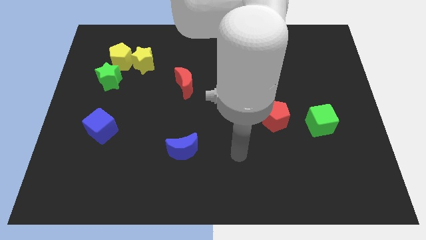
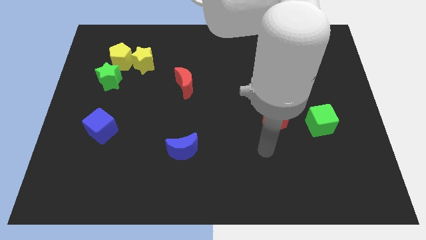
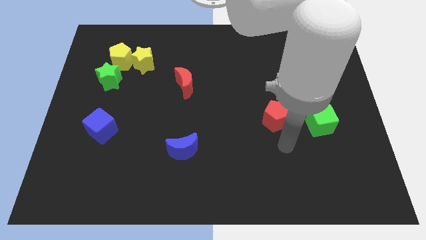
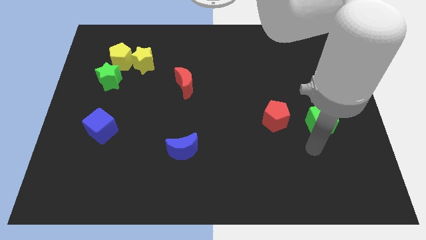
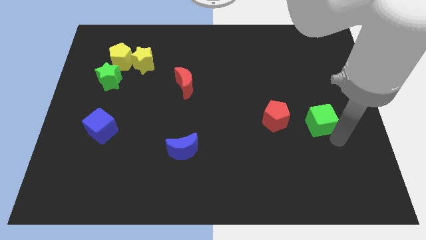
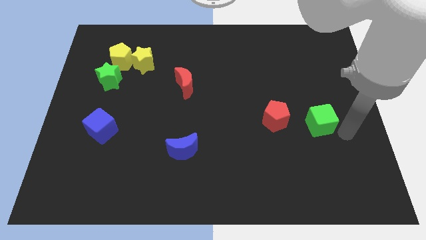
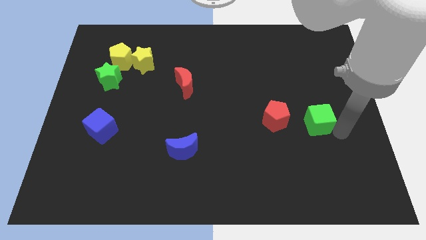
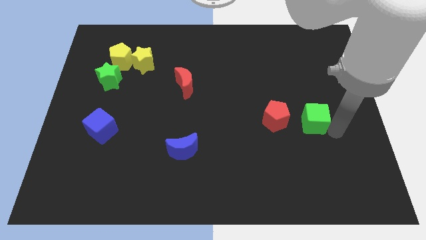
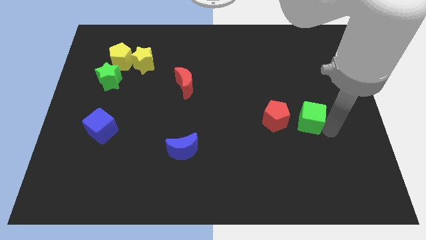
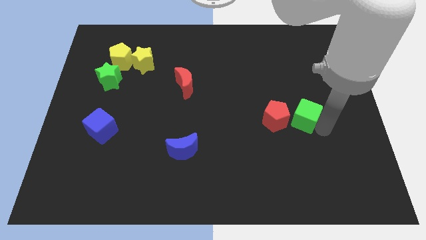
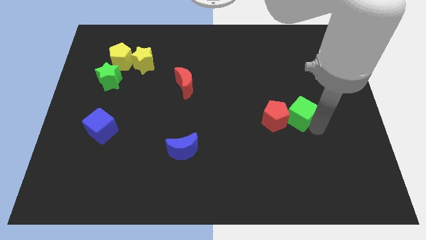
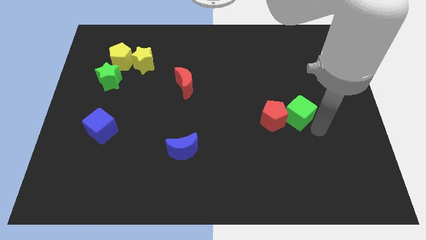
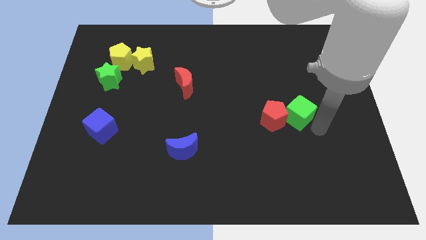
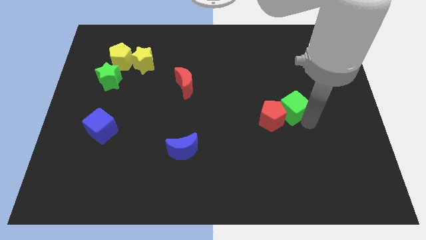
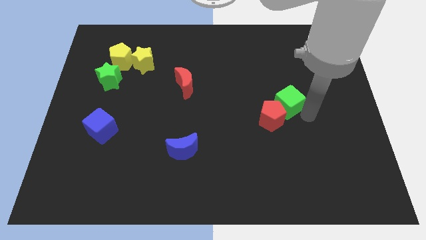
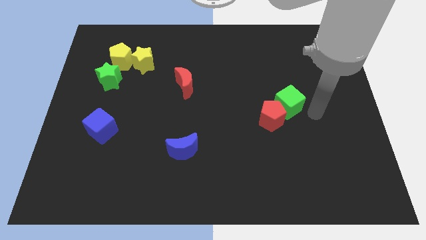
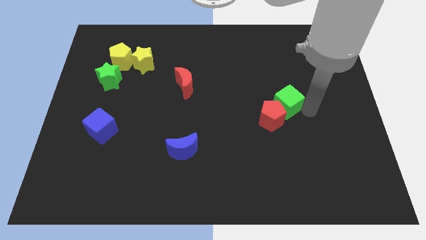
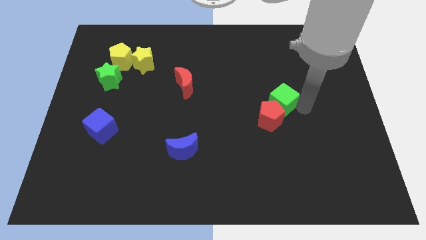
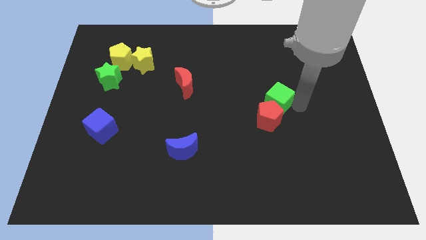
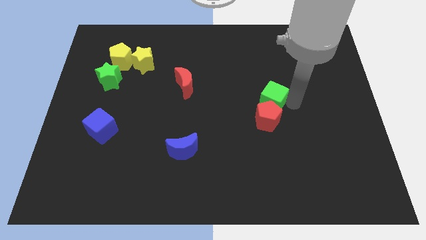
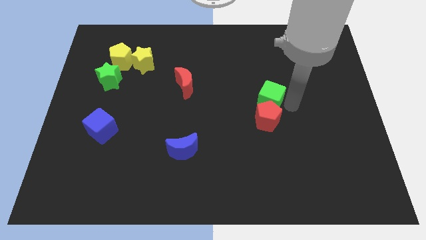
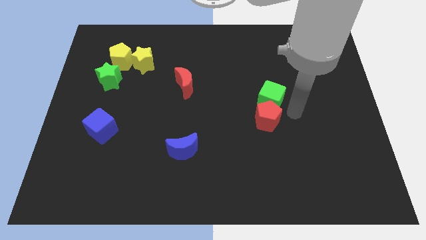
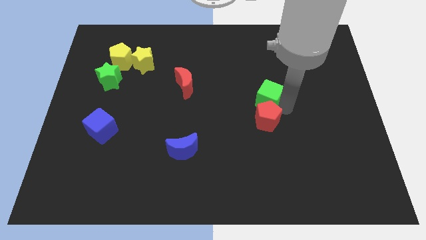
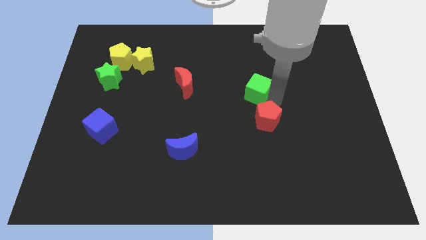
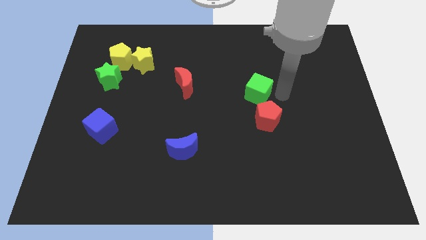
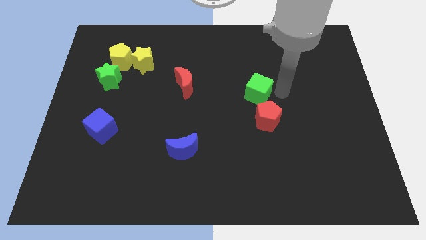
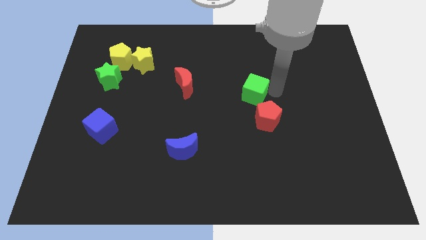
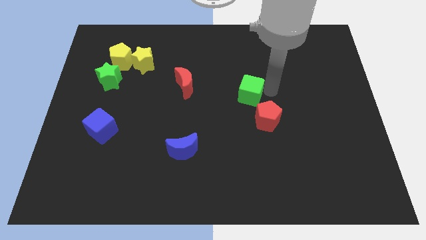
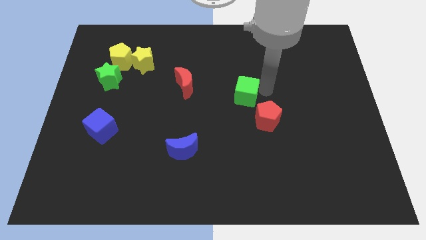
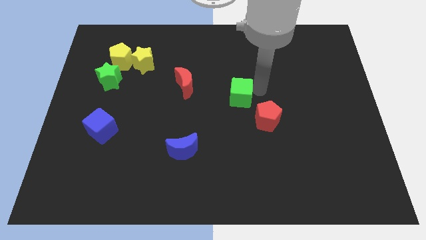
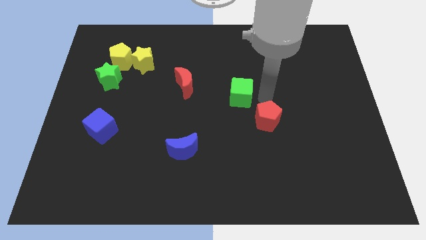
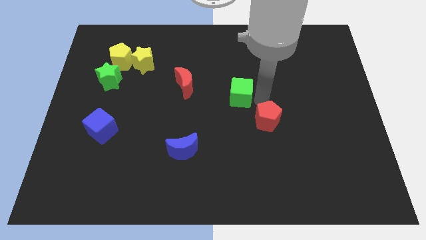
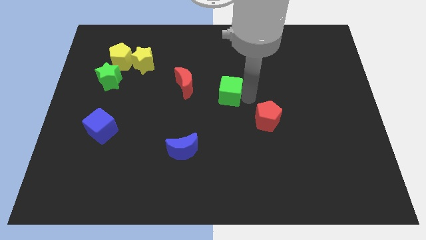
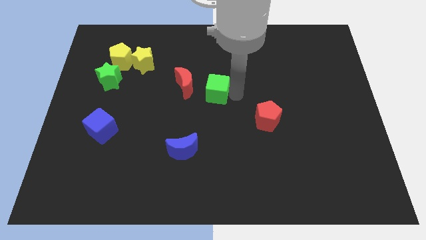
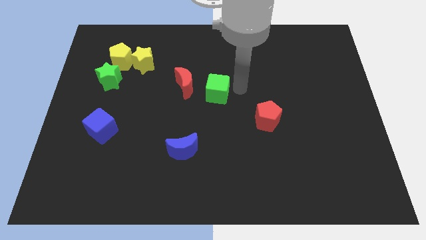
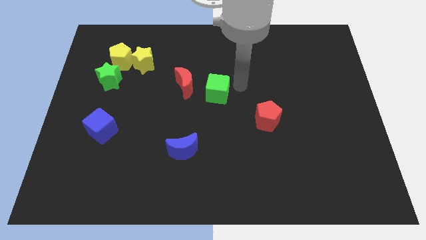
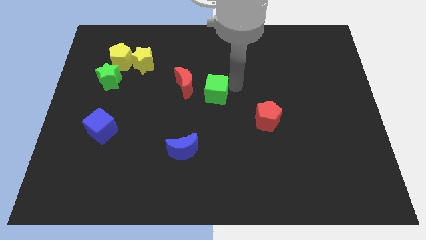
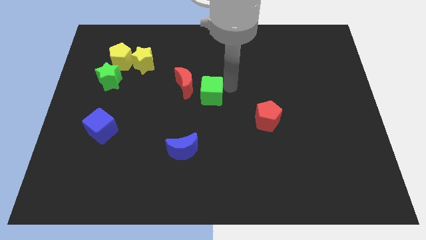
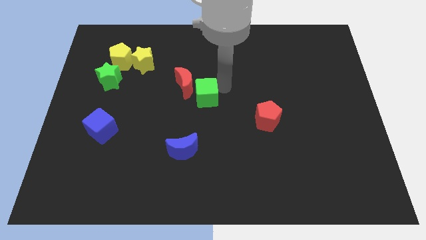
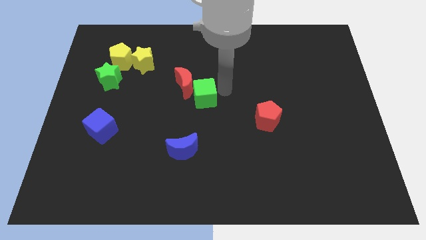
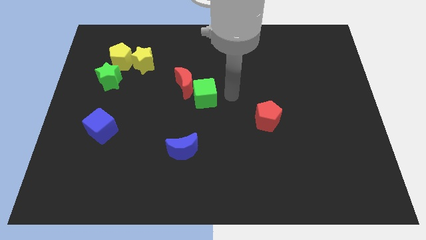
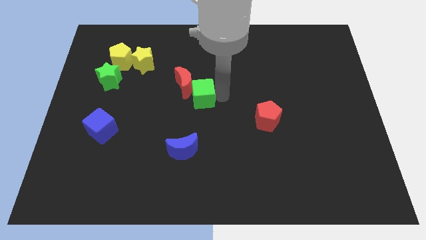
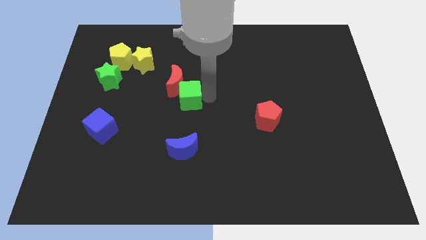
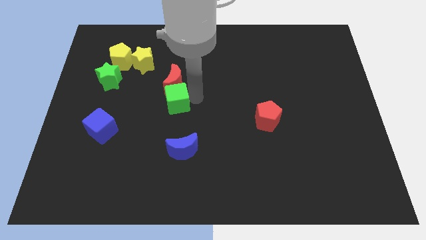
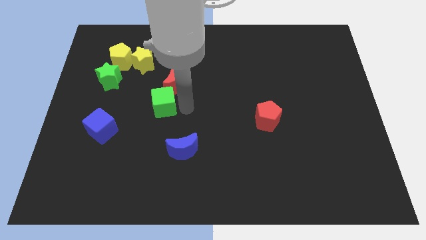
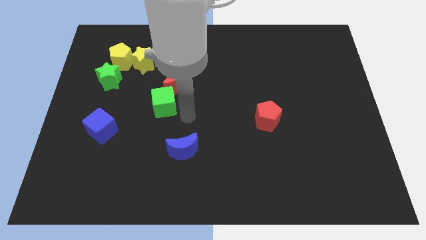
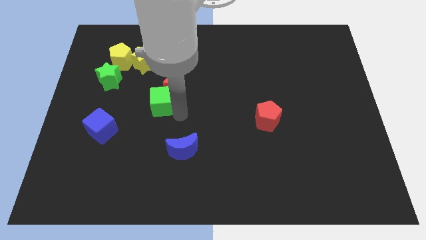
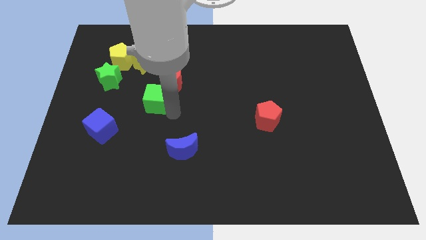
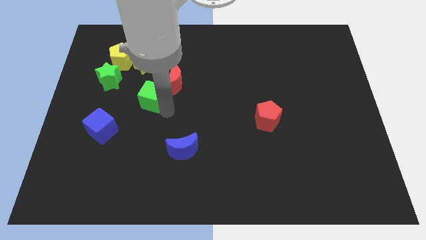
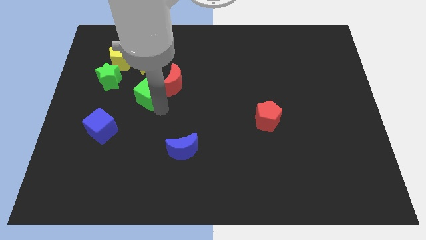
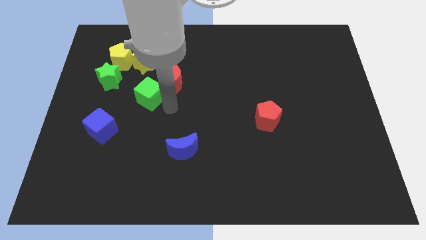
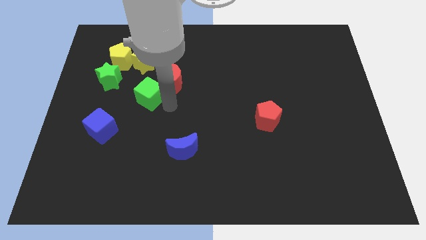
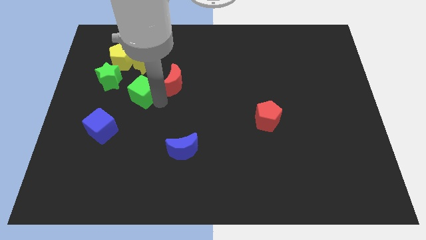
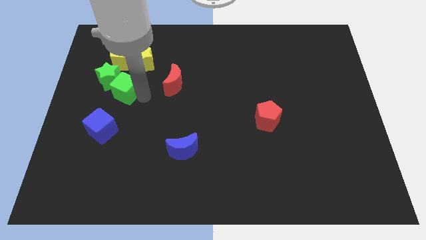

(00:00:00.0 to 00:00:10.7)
put the green cube towards the green star

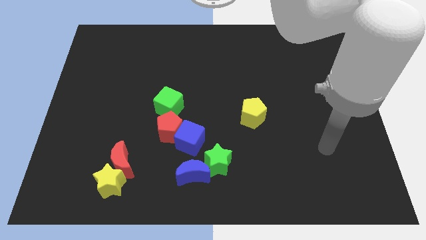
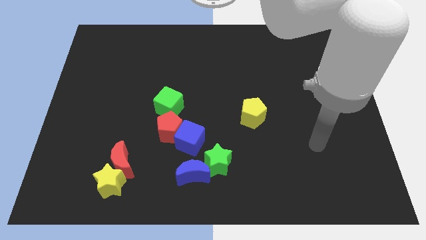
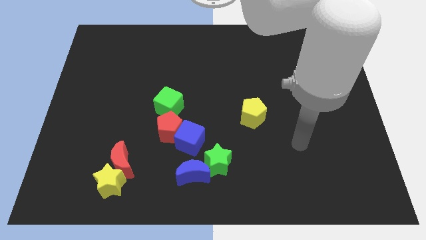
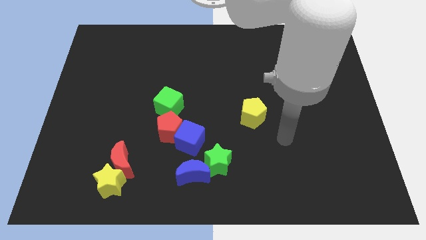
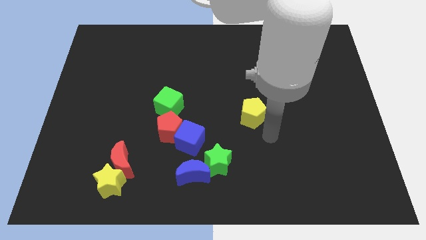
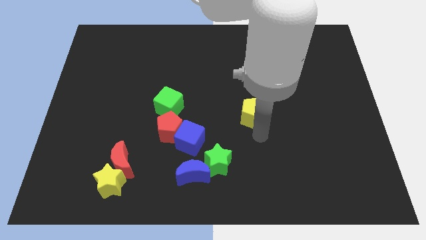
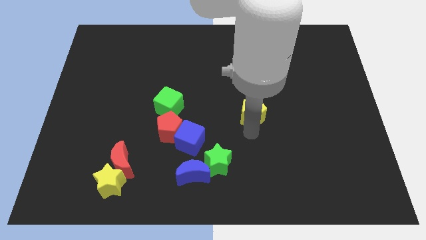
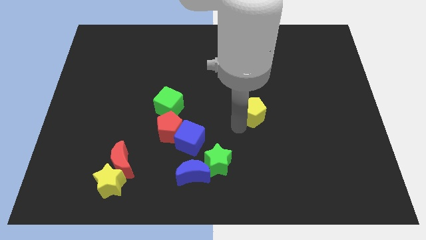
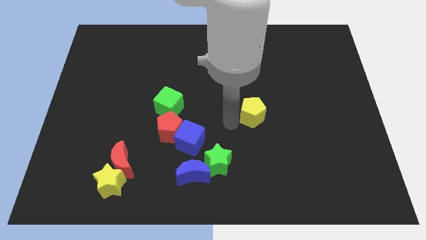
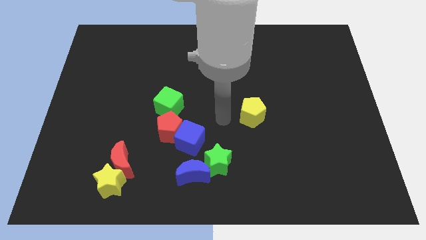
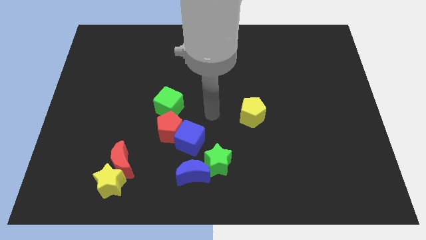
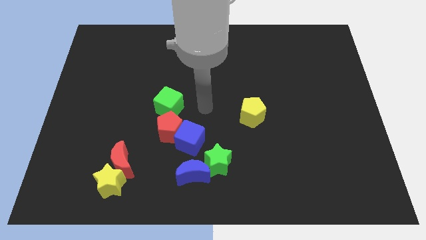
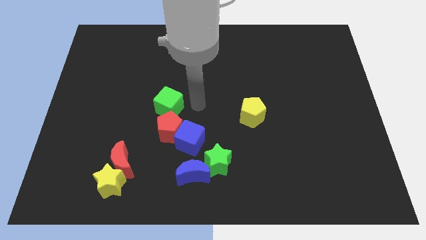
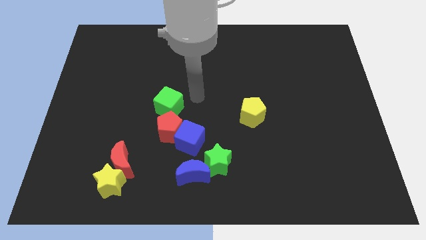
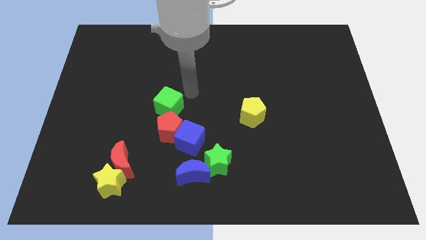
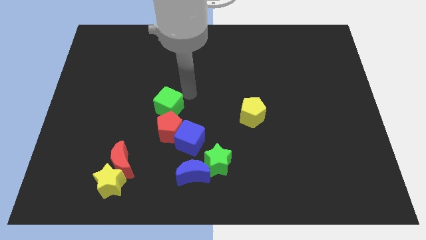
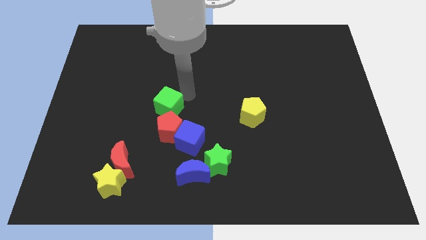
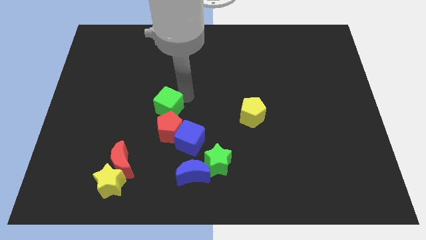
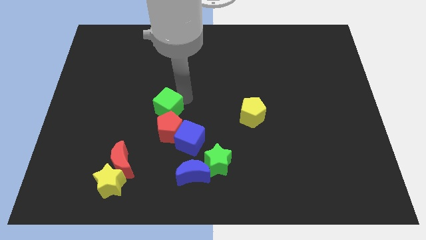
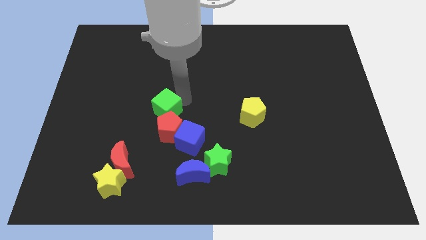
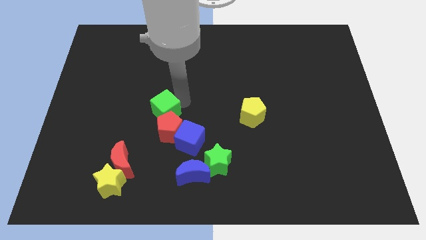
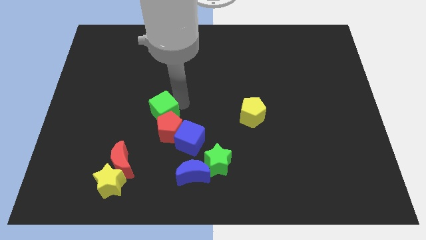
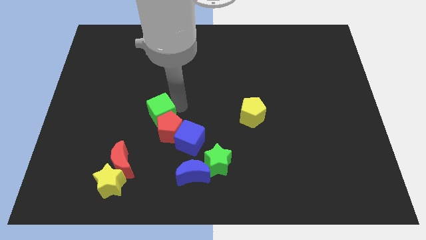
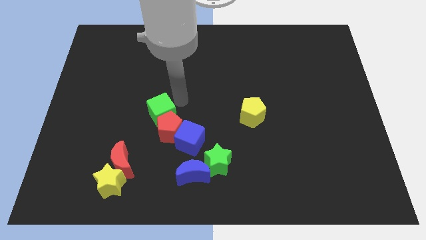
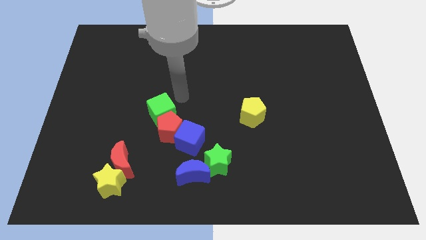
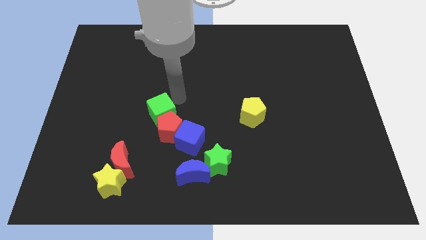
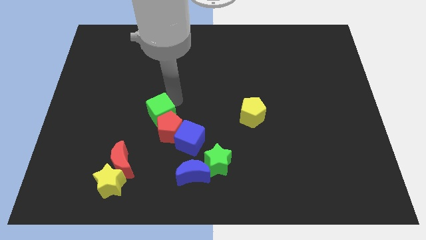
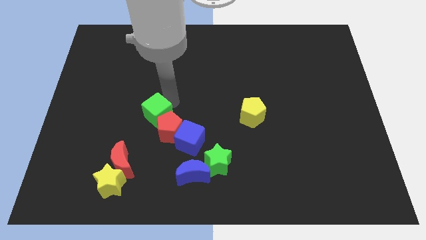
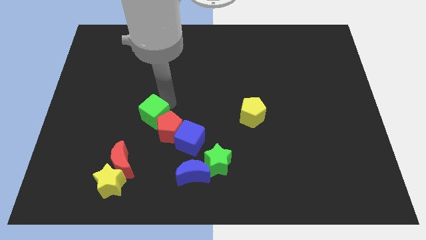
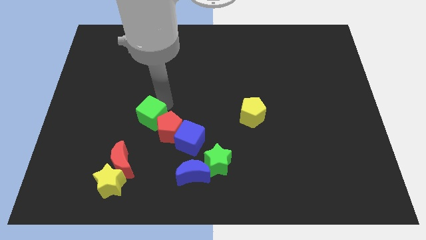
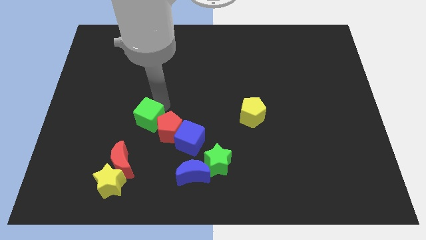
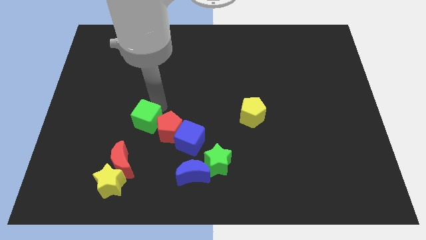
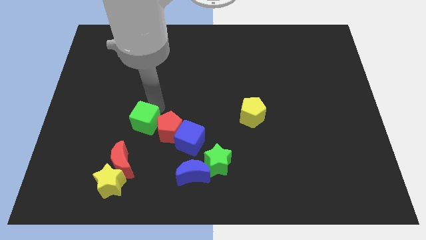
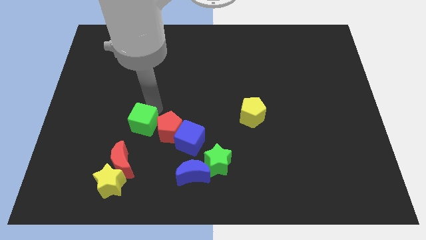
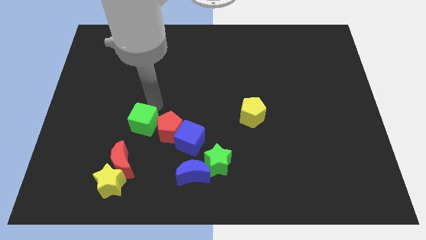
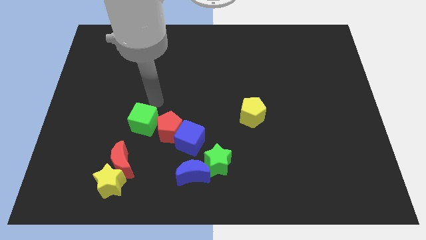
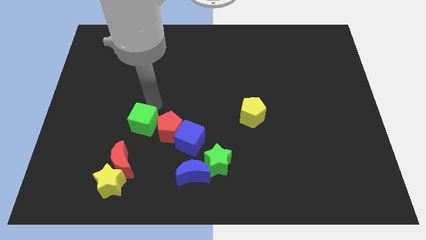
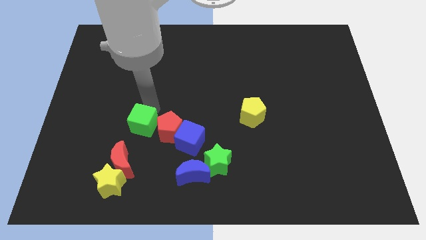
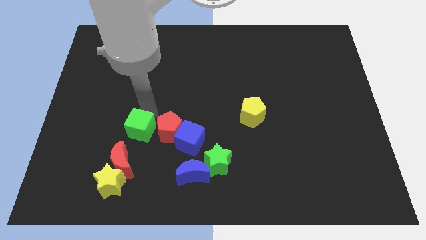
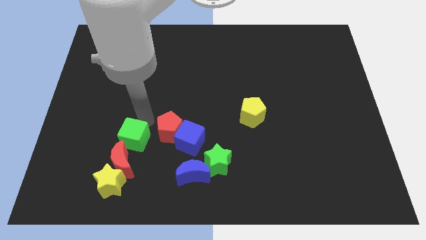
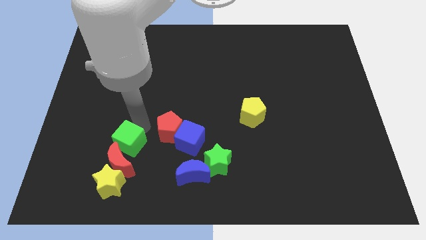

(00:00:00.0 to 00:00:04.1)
put the green cube next to the red moon
